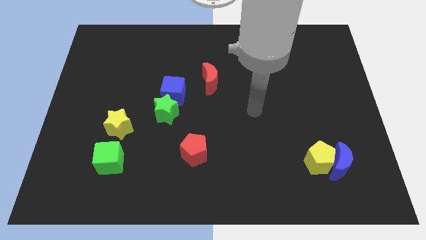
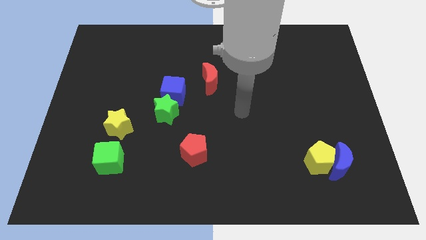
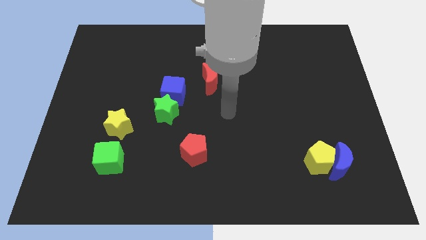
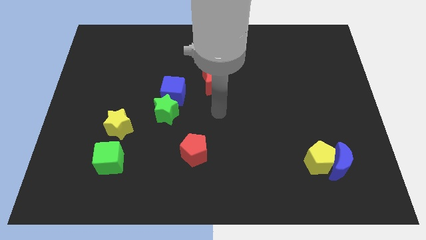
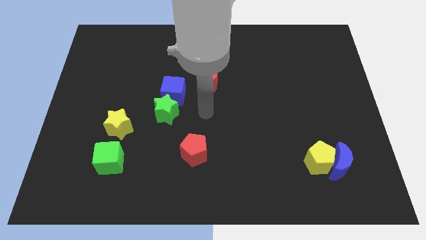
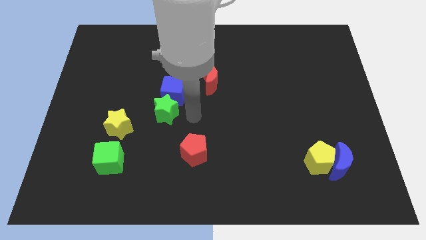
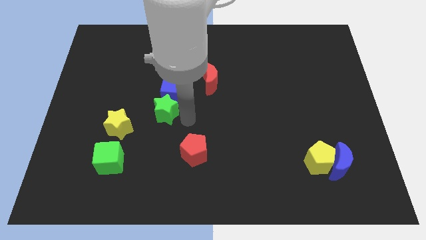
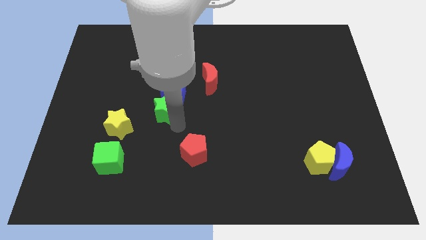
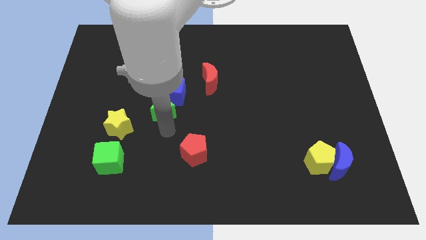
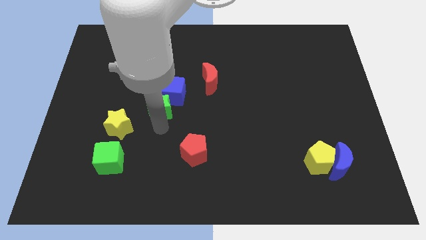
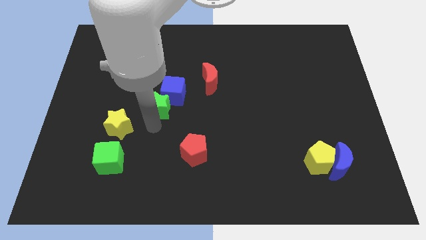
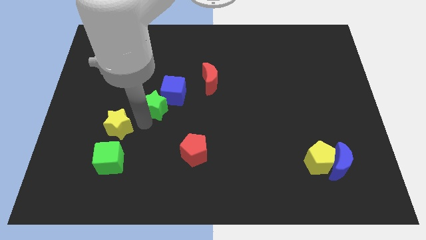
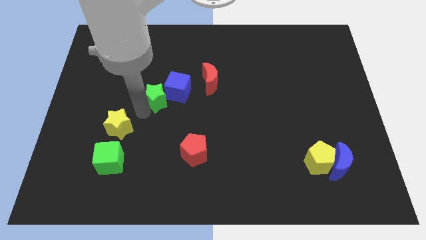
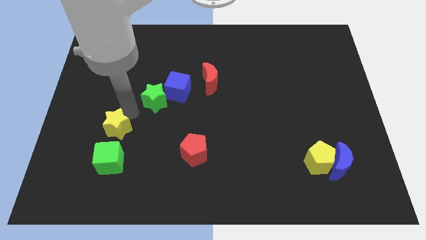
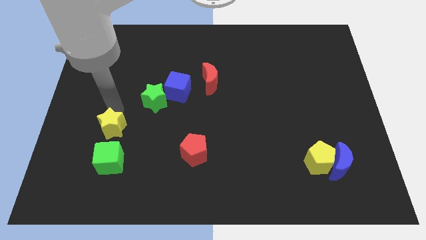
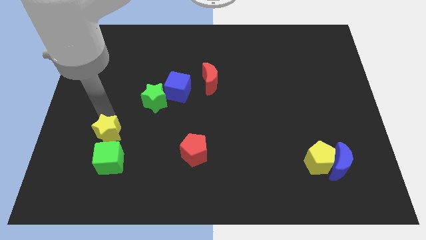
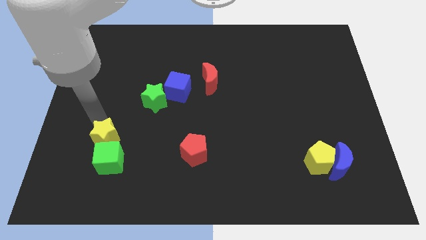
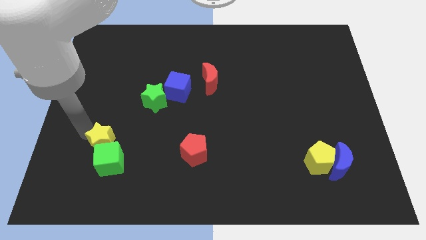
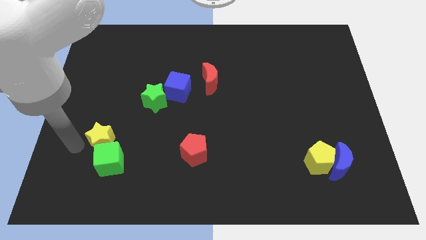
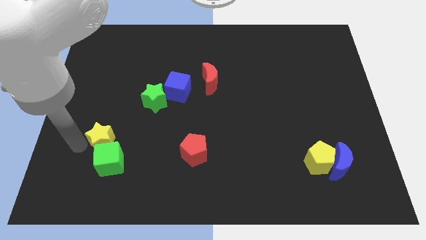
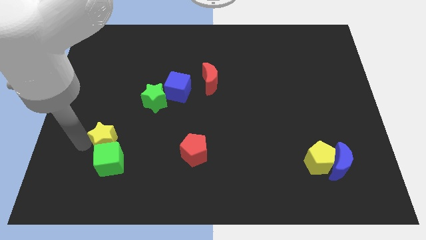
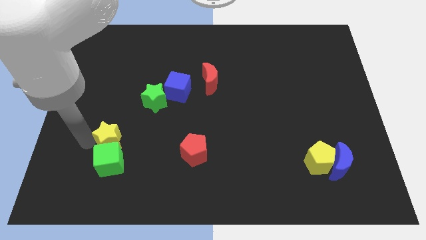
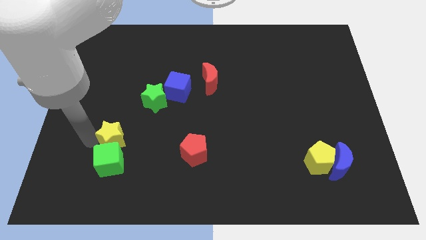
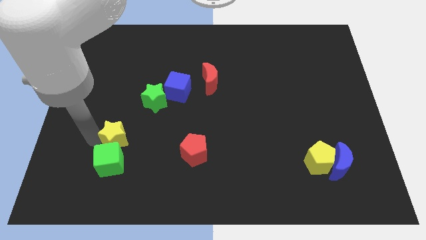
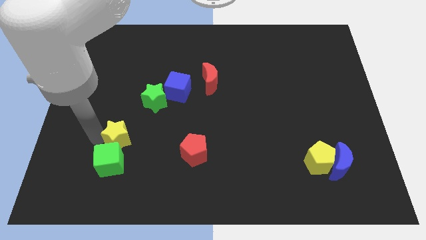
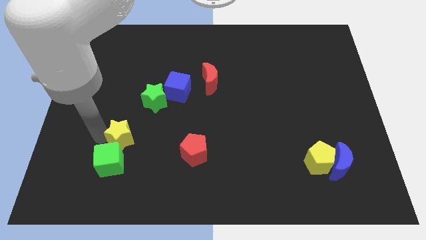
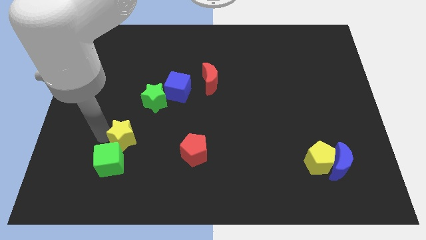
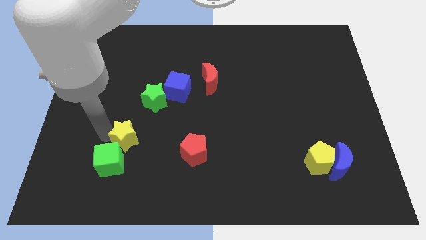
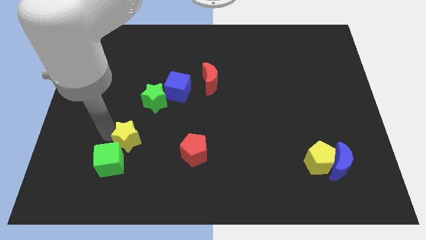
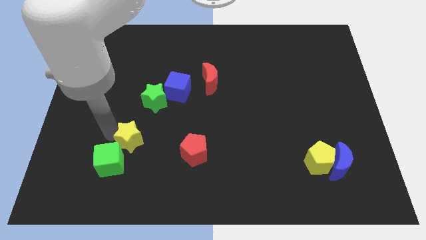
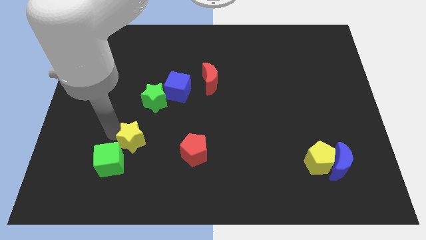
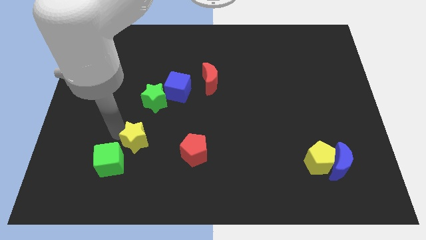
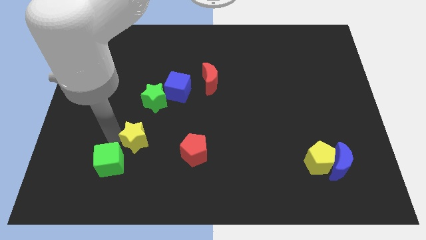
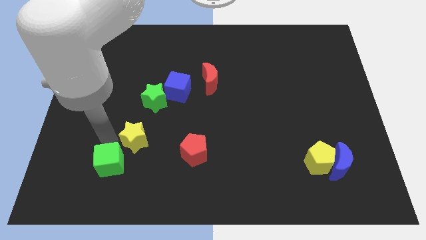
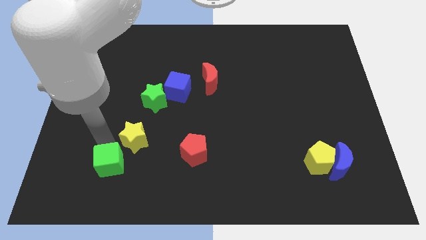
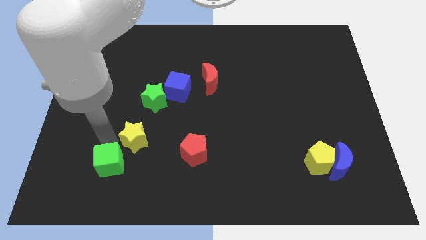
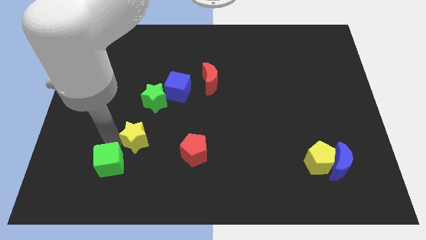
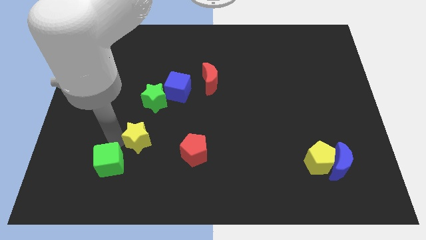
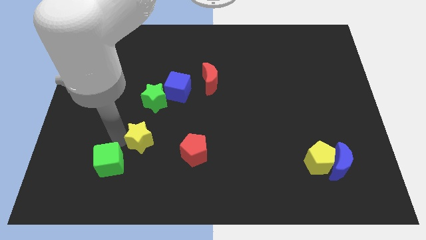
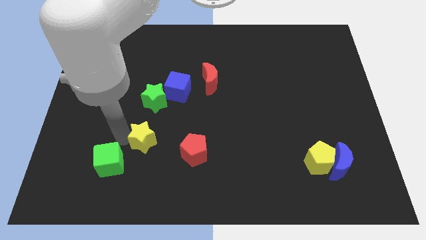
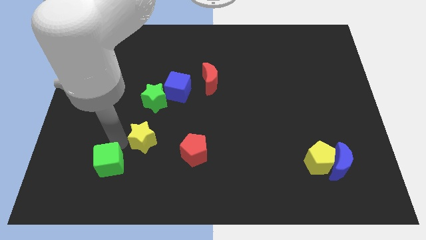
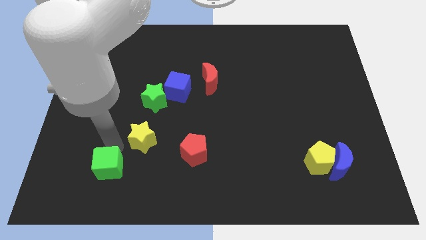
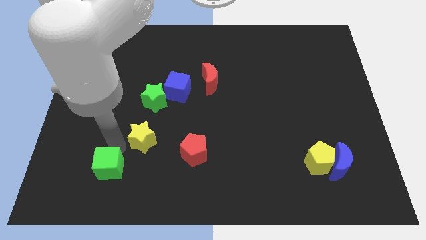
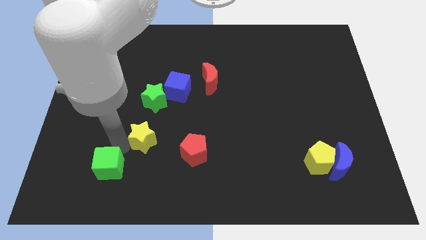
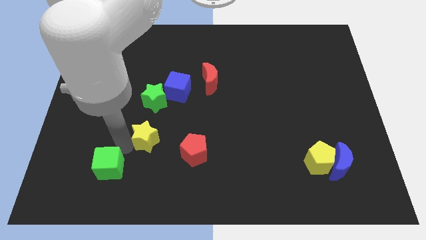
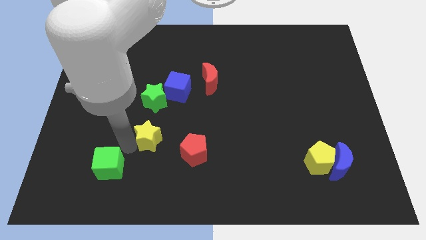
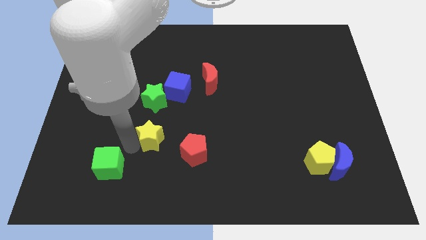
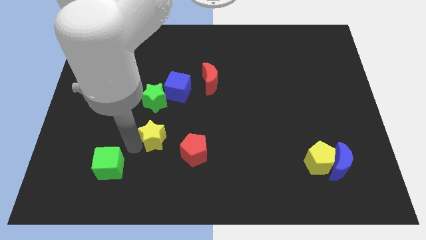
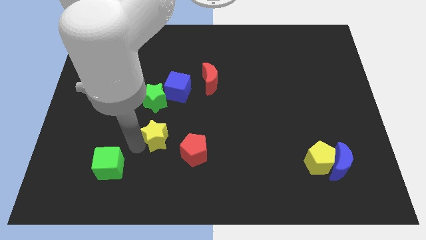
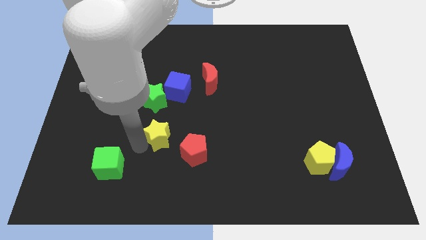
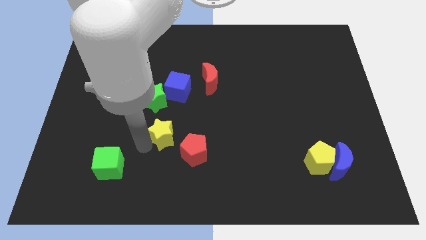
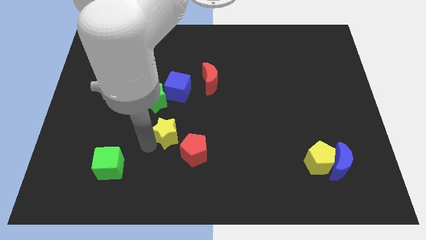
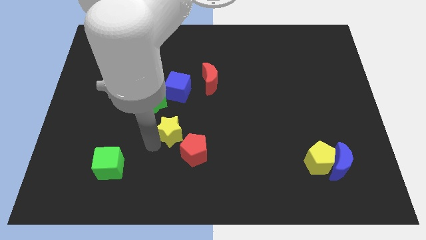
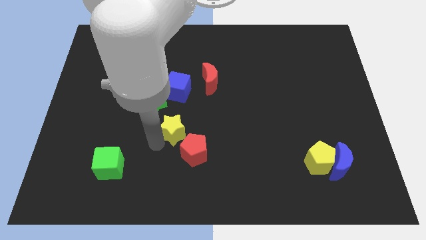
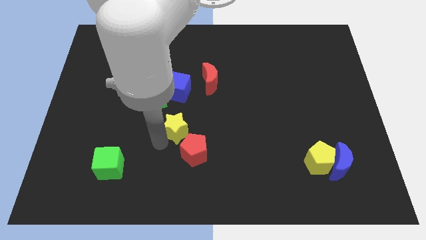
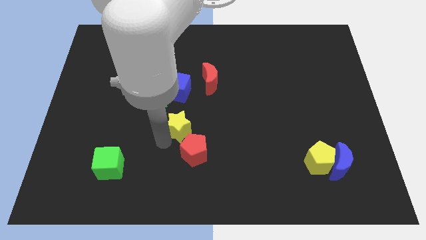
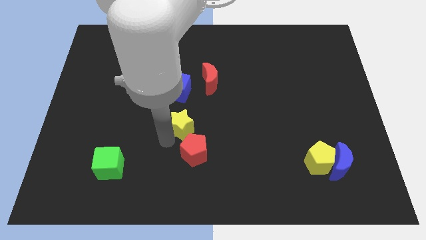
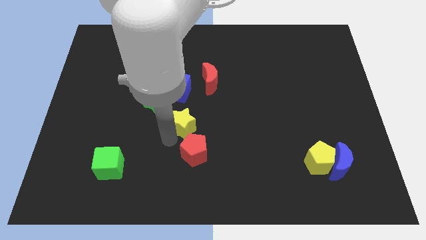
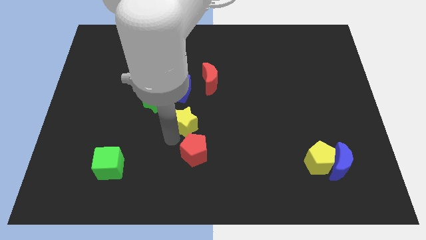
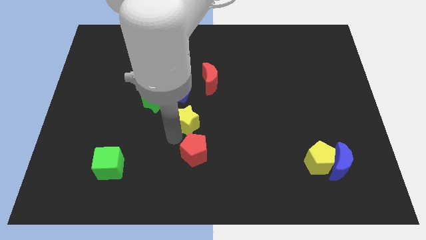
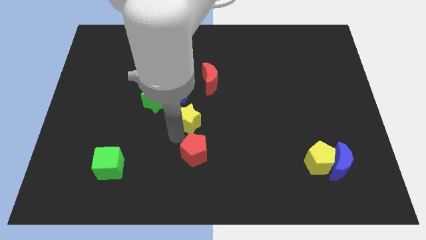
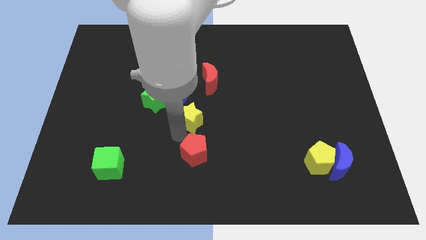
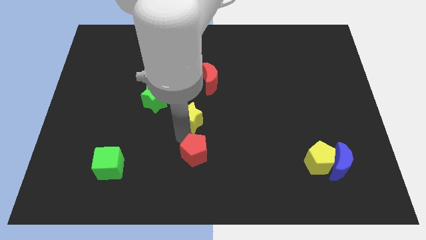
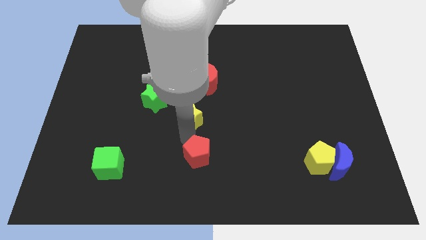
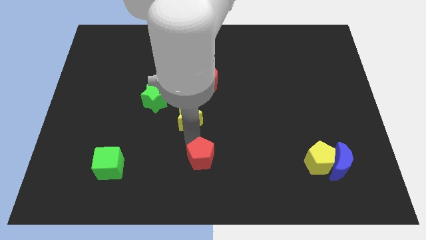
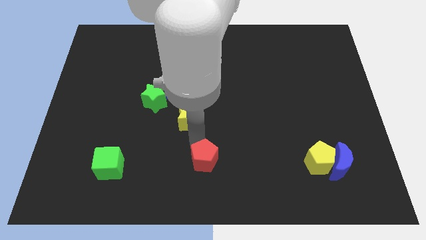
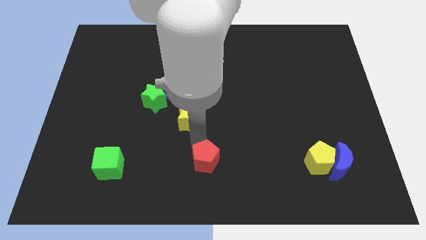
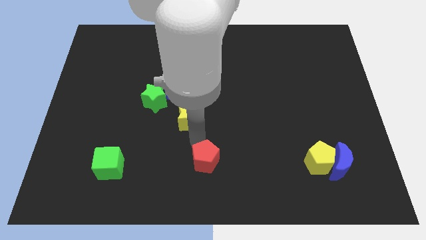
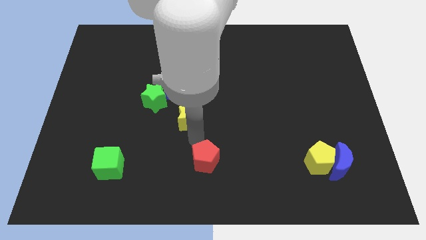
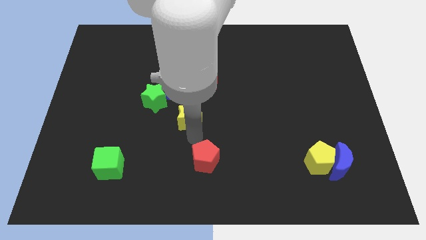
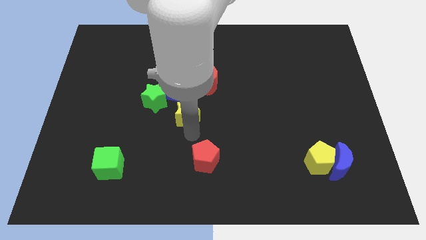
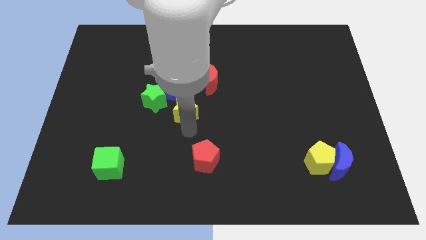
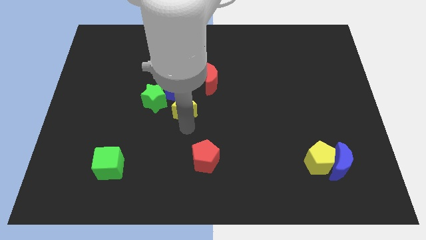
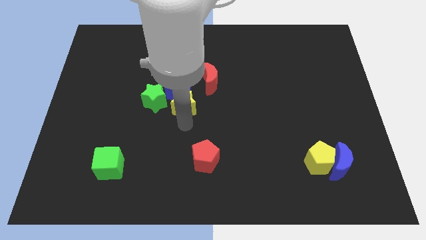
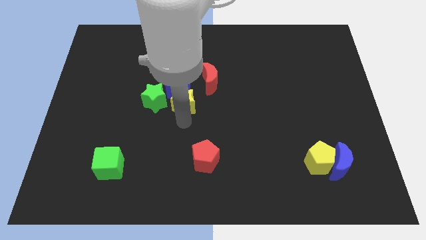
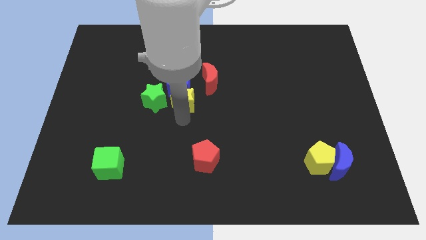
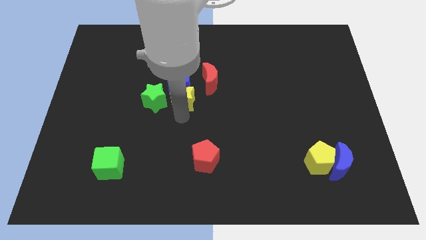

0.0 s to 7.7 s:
push the yellow star diagonally up and to the right of the green star
